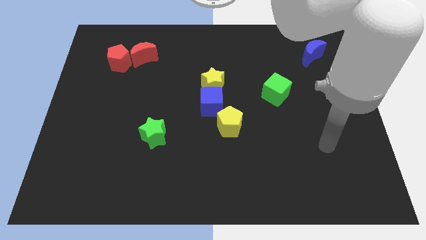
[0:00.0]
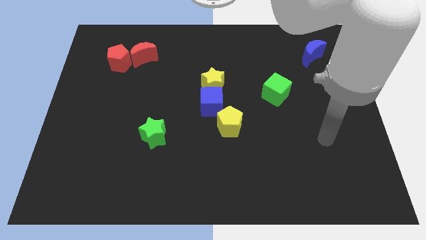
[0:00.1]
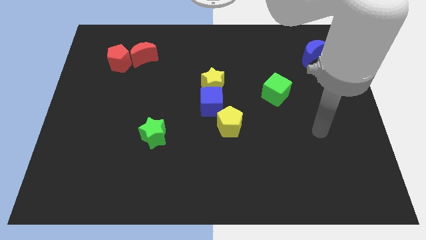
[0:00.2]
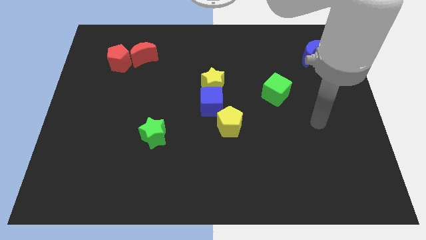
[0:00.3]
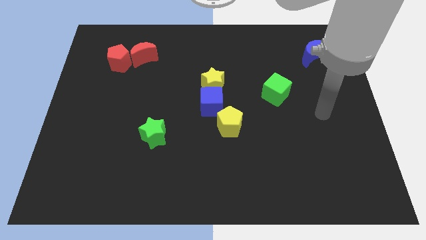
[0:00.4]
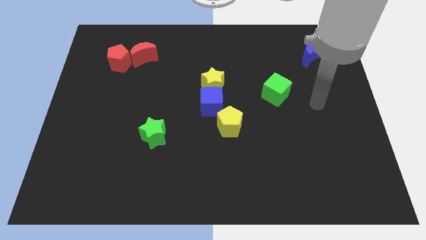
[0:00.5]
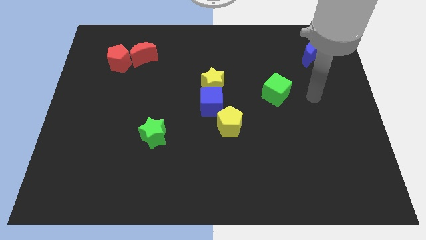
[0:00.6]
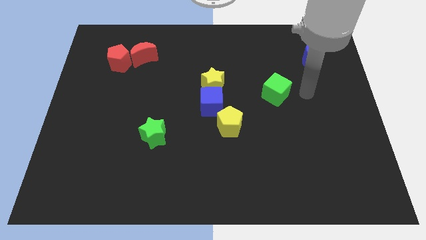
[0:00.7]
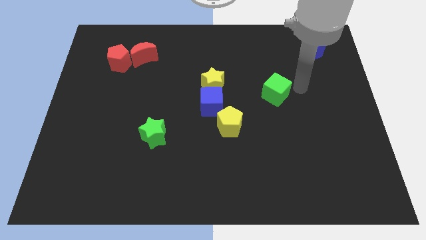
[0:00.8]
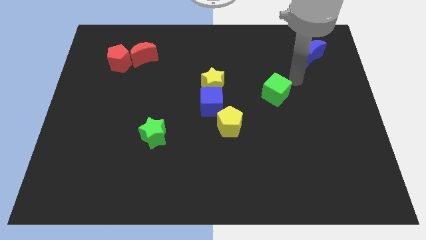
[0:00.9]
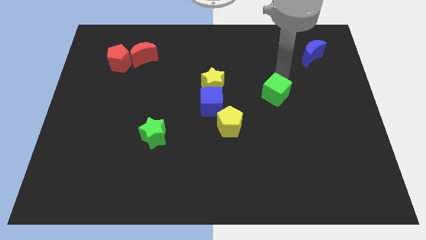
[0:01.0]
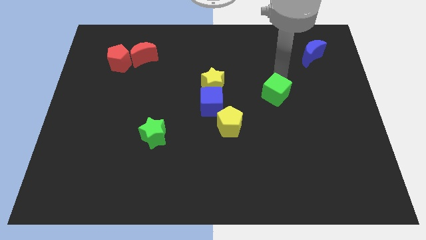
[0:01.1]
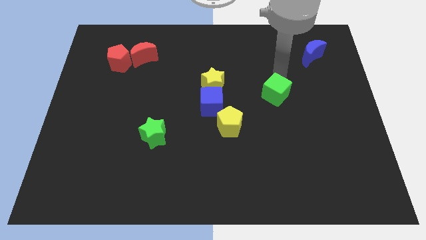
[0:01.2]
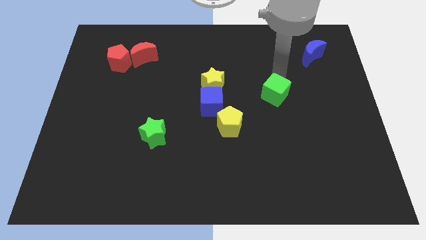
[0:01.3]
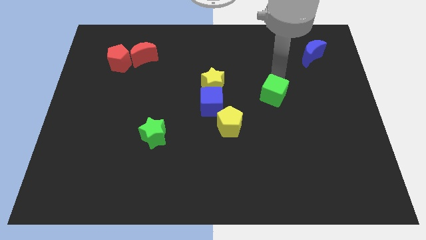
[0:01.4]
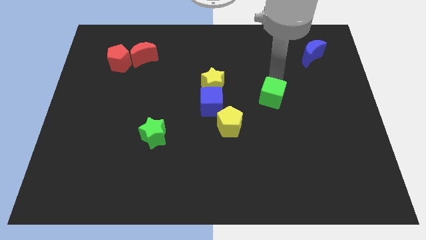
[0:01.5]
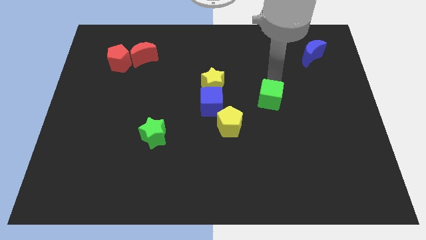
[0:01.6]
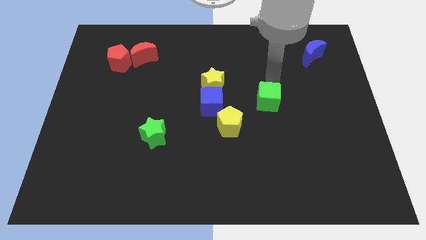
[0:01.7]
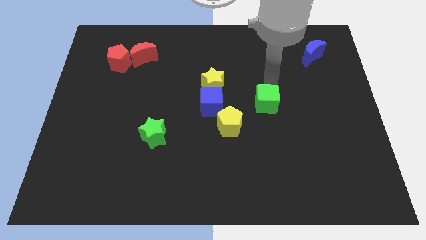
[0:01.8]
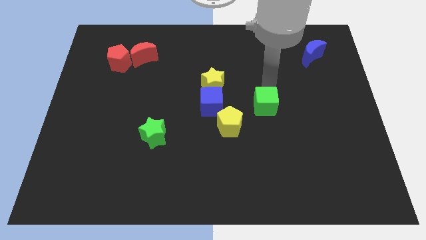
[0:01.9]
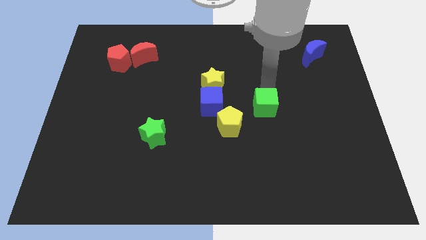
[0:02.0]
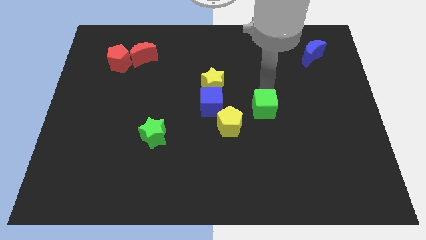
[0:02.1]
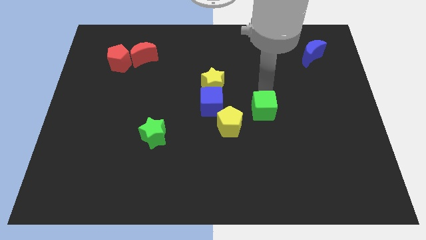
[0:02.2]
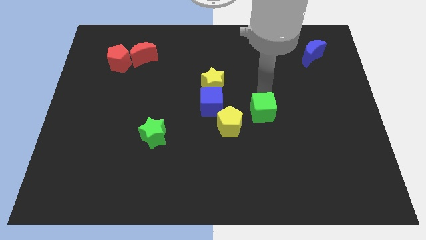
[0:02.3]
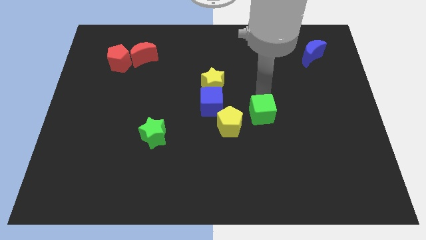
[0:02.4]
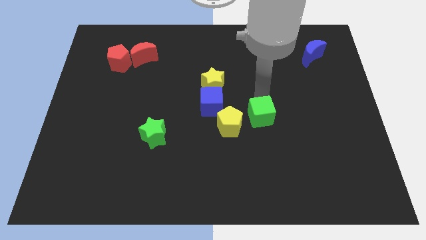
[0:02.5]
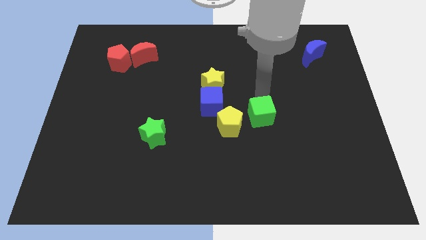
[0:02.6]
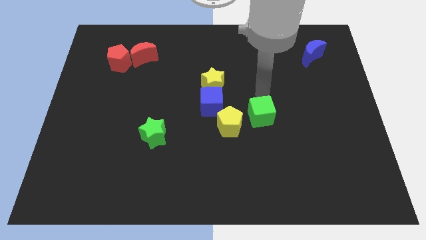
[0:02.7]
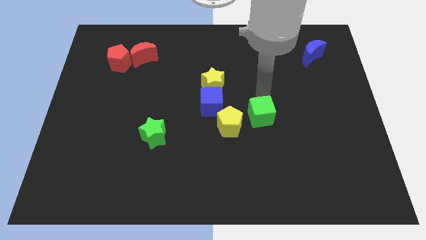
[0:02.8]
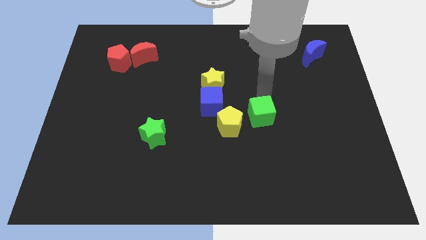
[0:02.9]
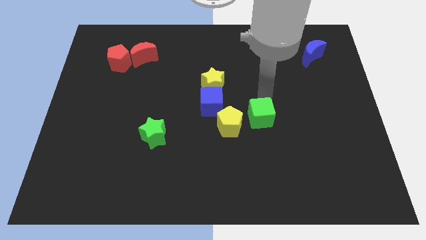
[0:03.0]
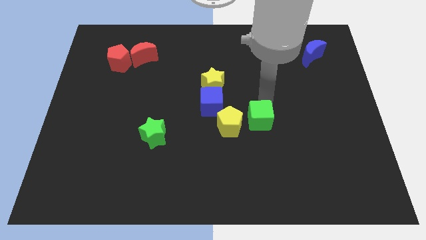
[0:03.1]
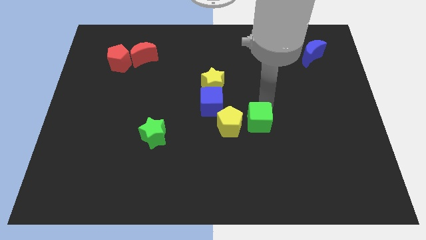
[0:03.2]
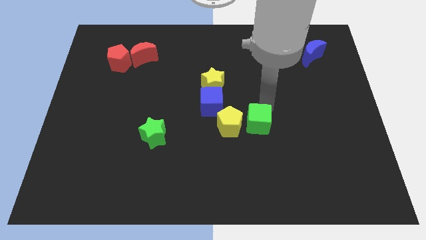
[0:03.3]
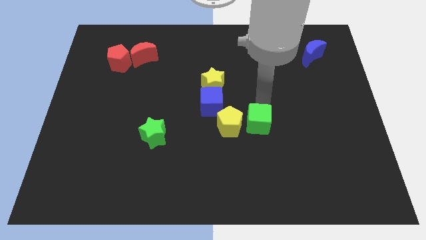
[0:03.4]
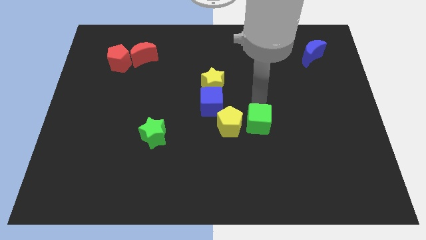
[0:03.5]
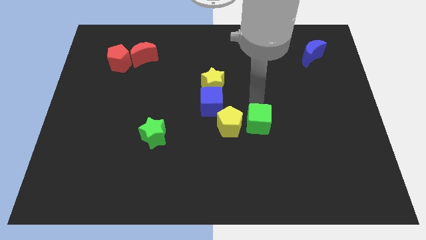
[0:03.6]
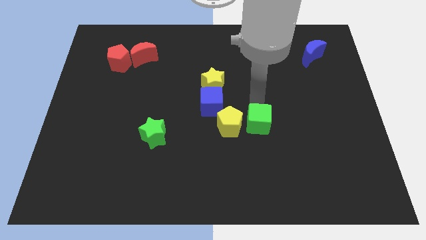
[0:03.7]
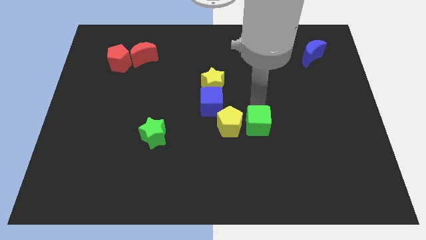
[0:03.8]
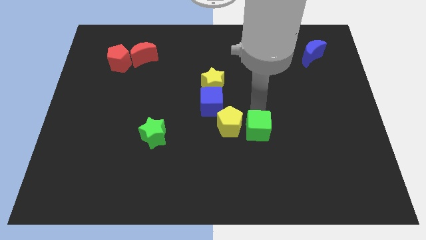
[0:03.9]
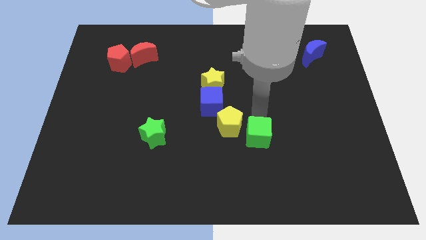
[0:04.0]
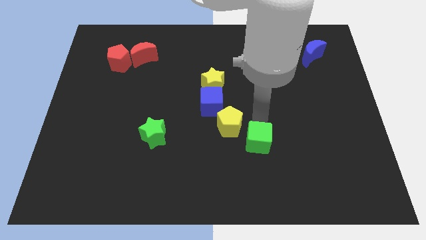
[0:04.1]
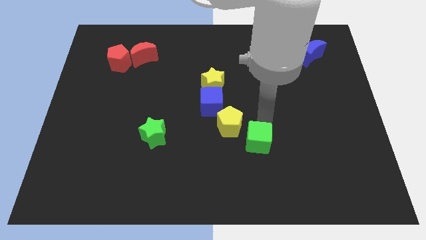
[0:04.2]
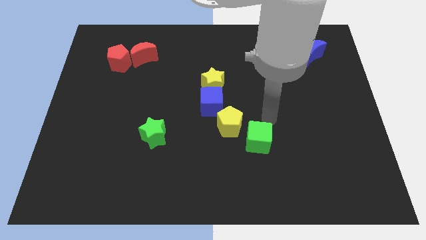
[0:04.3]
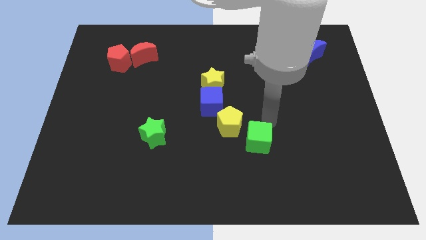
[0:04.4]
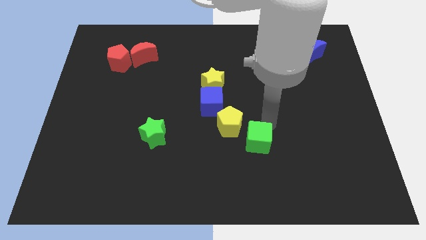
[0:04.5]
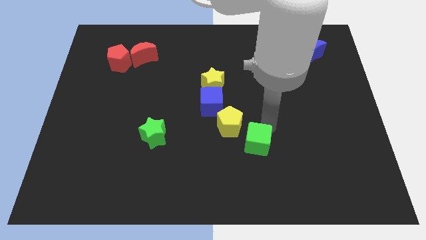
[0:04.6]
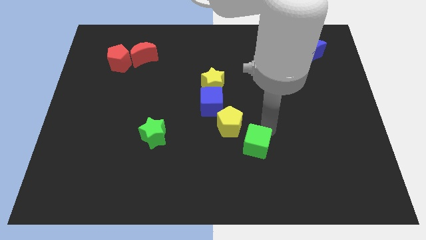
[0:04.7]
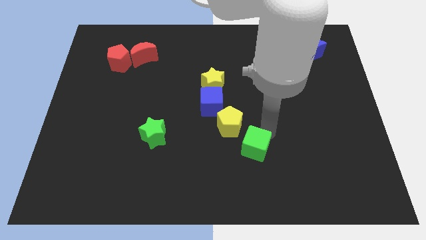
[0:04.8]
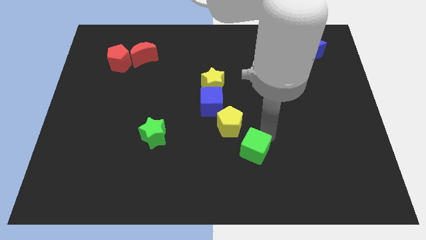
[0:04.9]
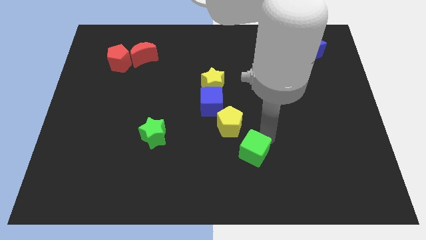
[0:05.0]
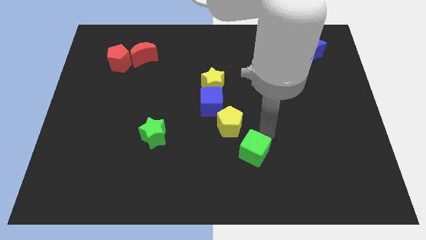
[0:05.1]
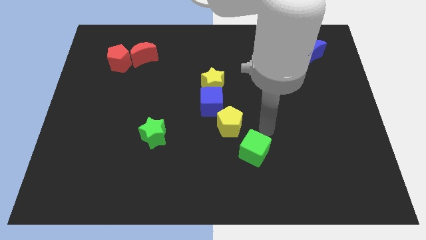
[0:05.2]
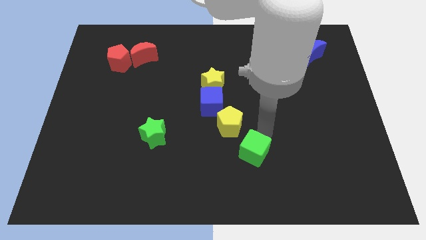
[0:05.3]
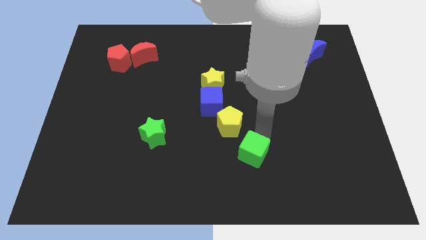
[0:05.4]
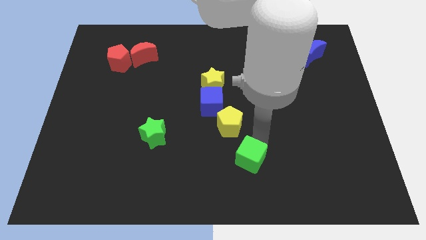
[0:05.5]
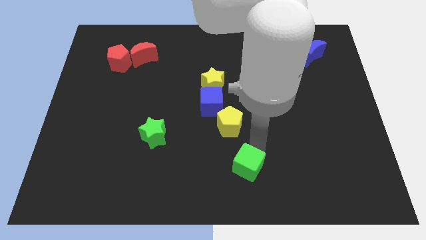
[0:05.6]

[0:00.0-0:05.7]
slide the green cube to the bottom

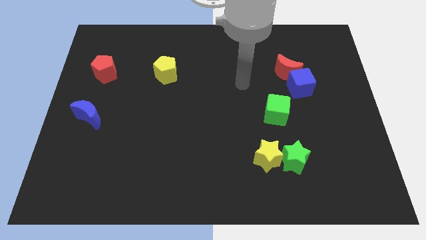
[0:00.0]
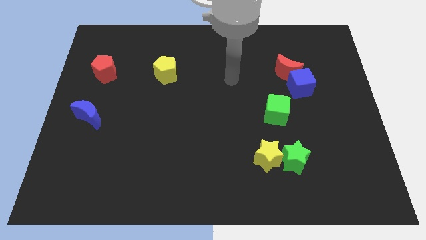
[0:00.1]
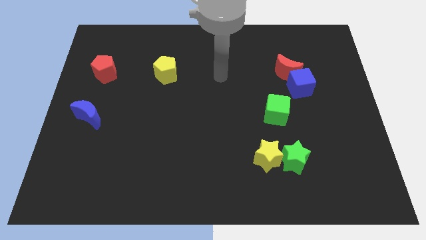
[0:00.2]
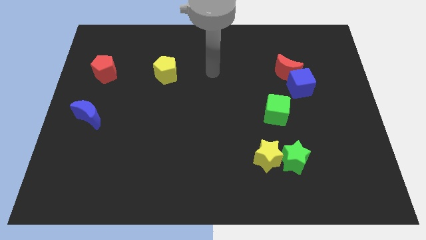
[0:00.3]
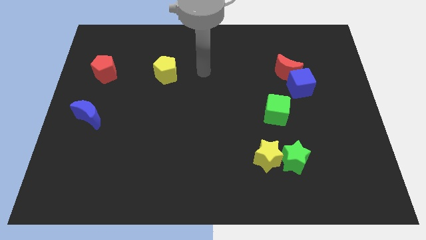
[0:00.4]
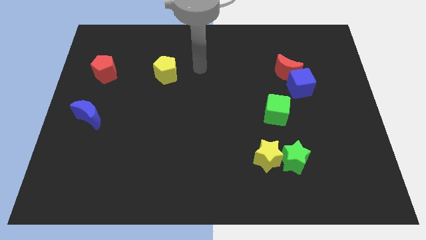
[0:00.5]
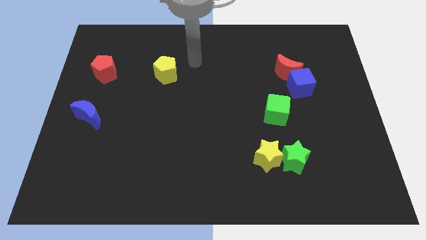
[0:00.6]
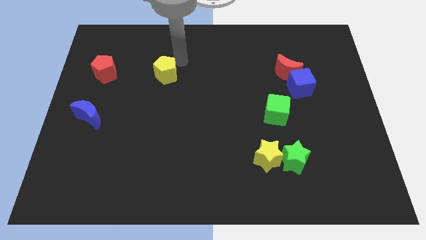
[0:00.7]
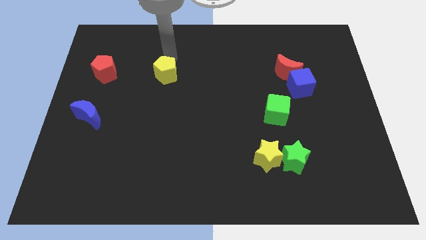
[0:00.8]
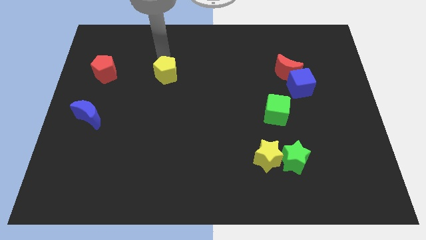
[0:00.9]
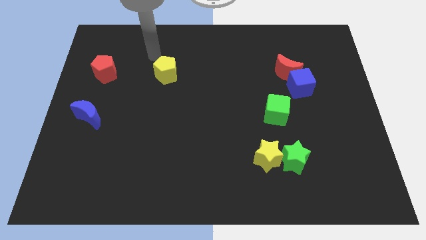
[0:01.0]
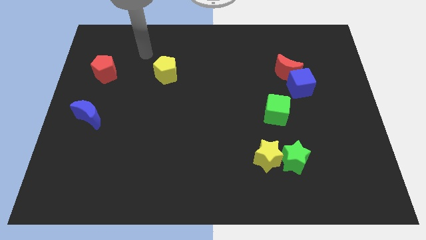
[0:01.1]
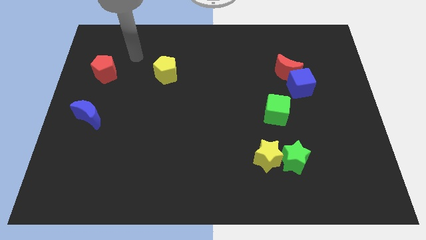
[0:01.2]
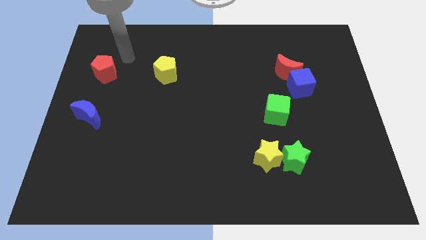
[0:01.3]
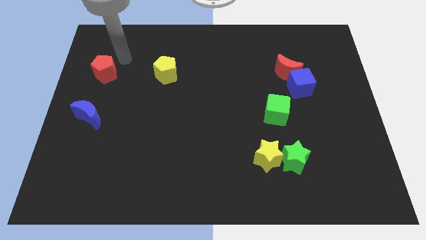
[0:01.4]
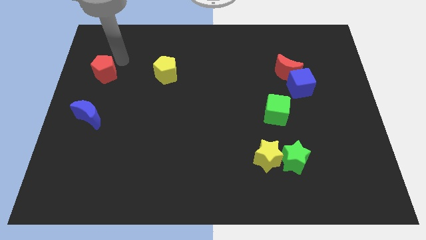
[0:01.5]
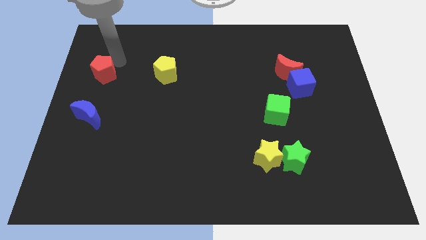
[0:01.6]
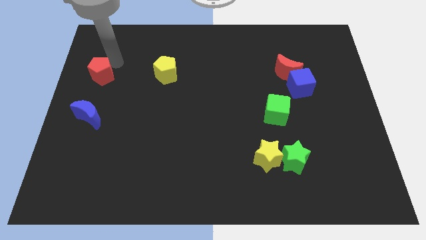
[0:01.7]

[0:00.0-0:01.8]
slide the red pentagon to the left side
